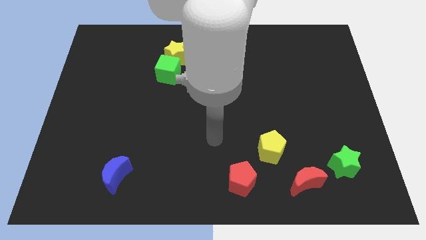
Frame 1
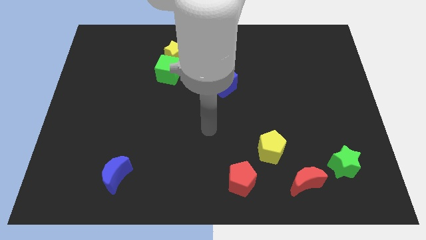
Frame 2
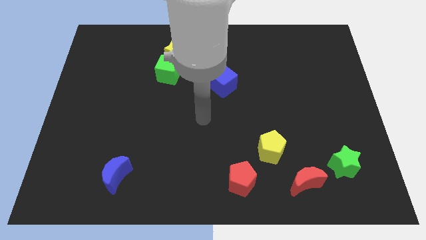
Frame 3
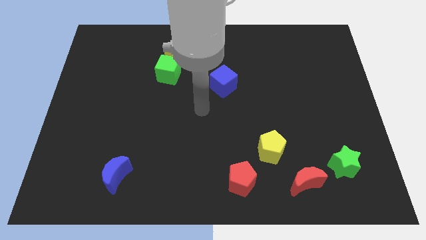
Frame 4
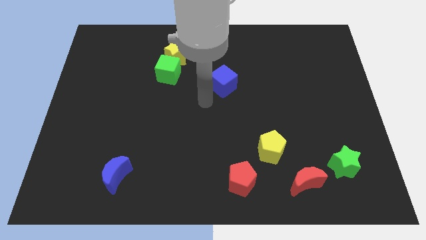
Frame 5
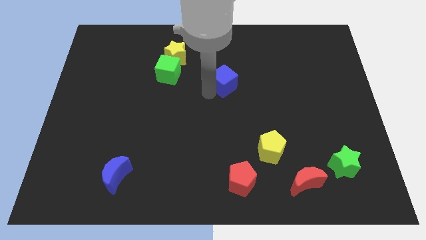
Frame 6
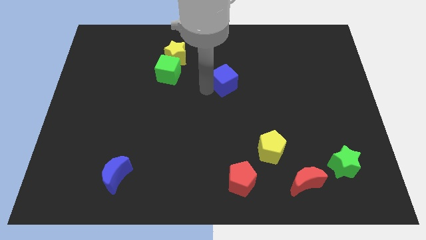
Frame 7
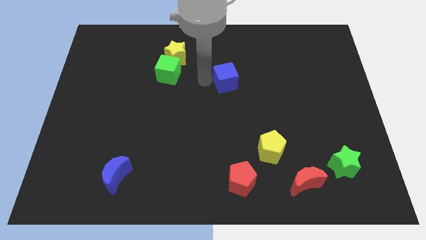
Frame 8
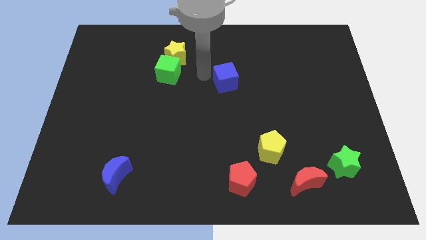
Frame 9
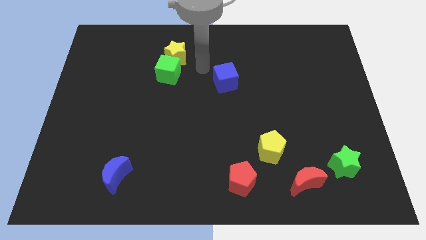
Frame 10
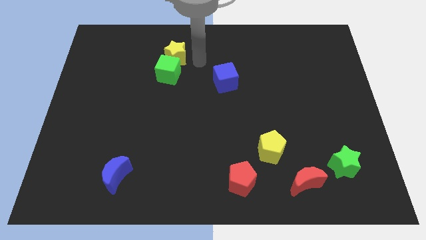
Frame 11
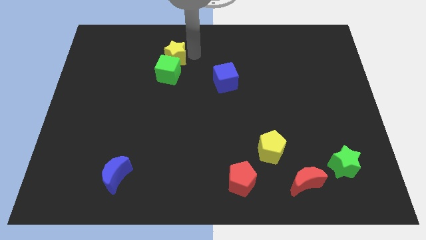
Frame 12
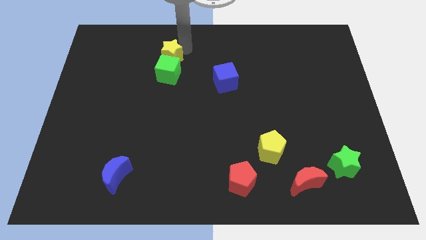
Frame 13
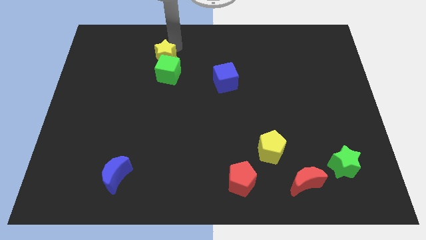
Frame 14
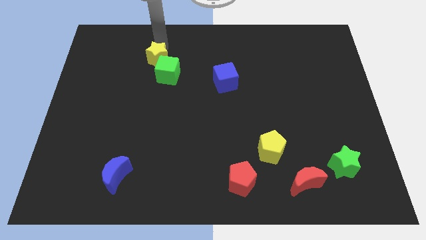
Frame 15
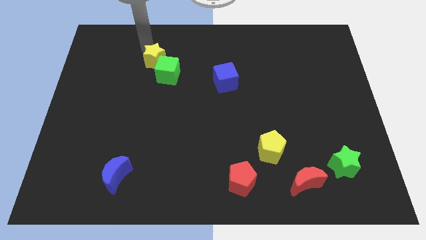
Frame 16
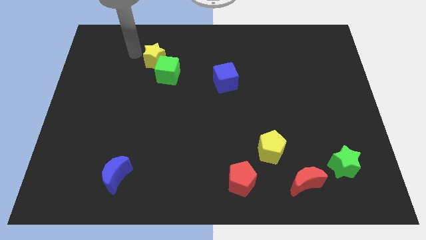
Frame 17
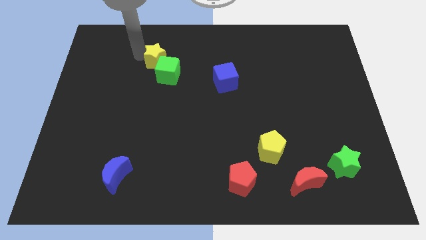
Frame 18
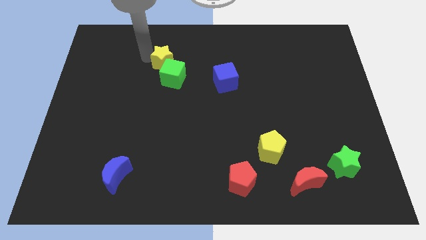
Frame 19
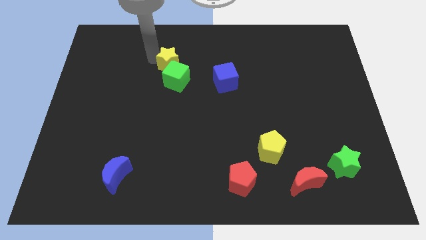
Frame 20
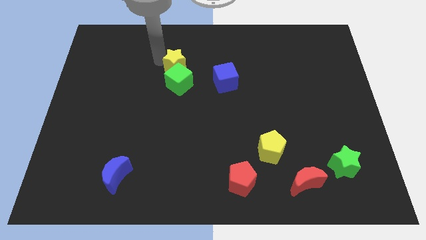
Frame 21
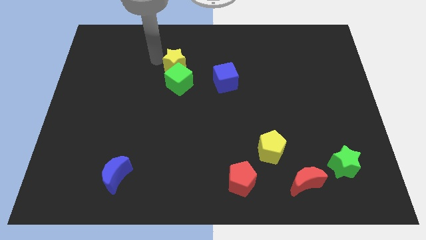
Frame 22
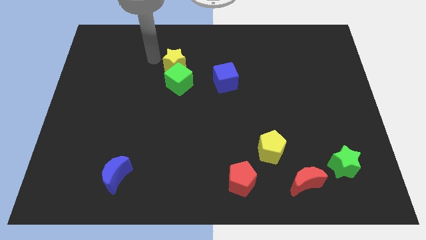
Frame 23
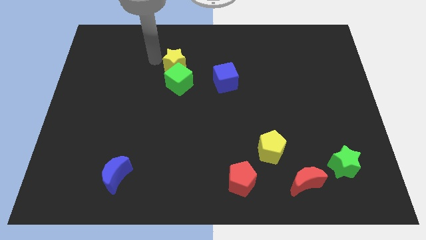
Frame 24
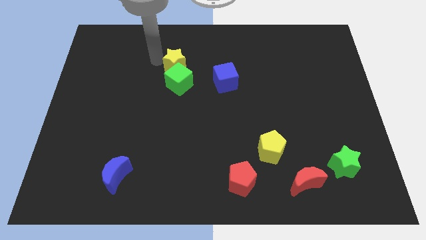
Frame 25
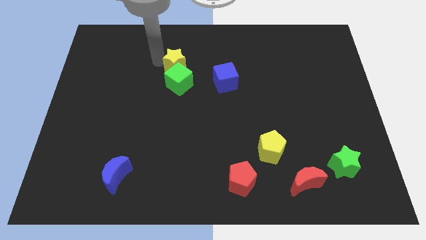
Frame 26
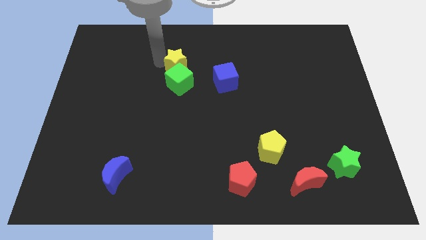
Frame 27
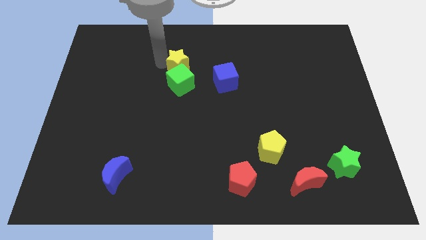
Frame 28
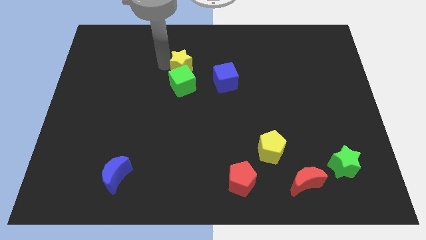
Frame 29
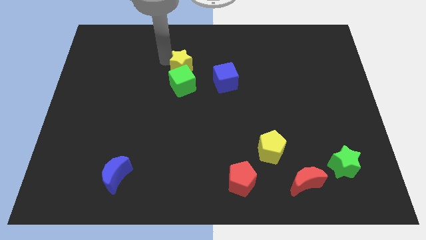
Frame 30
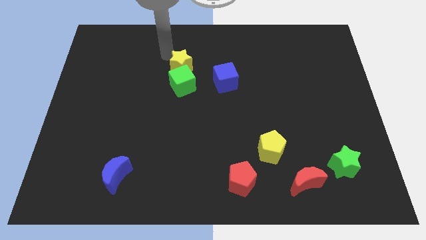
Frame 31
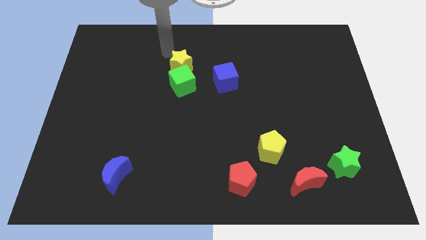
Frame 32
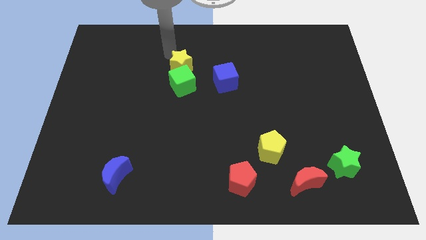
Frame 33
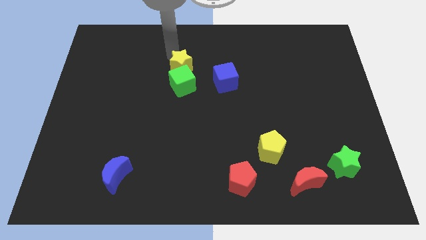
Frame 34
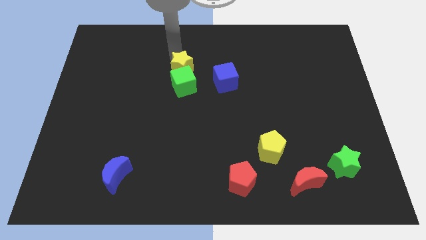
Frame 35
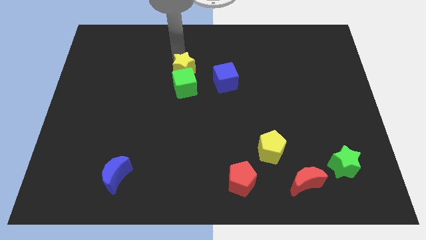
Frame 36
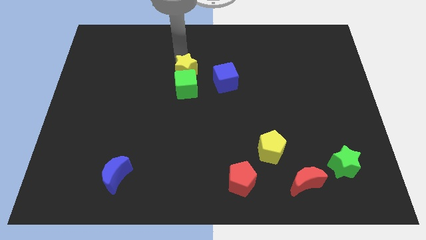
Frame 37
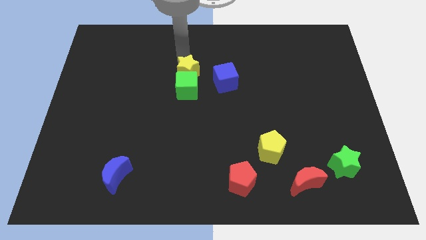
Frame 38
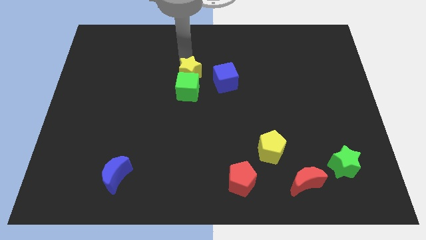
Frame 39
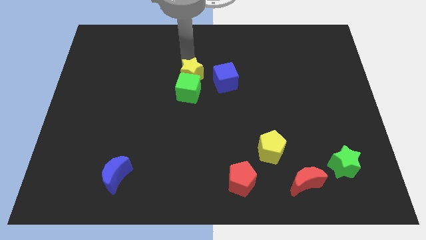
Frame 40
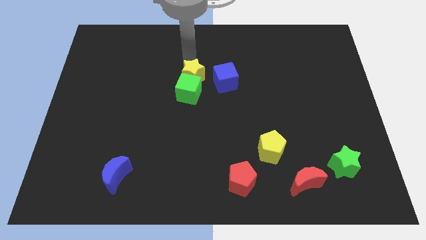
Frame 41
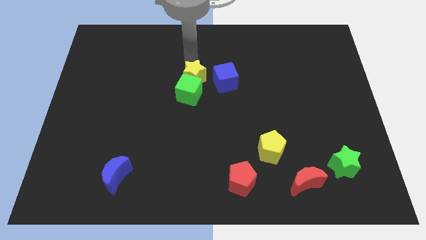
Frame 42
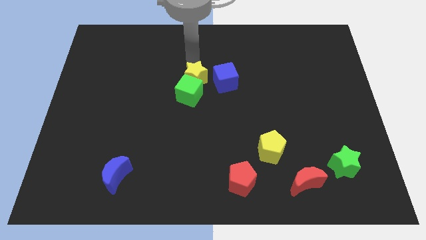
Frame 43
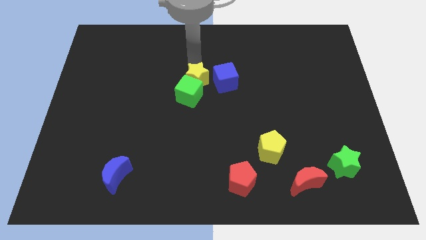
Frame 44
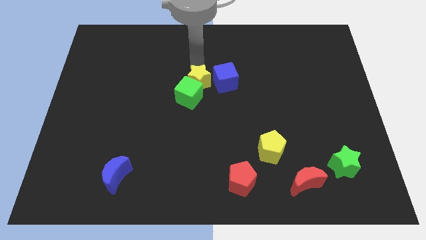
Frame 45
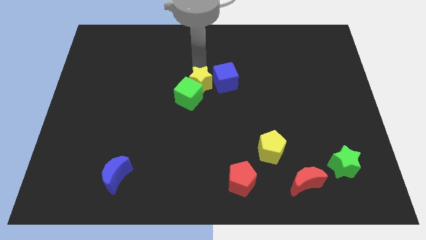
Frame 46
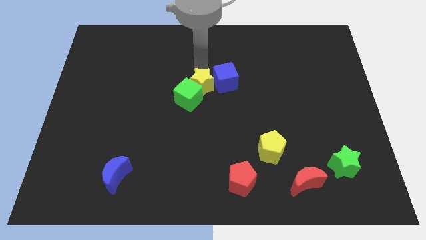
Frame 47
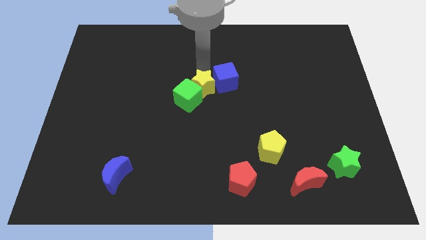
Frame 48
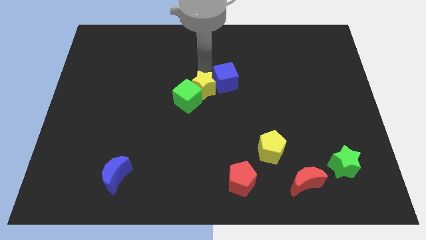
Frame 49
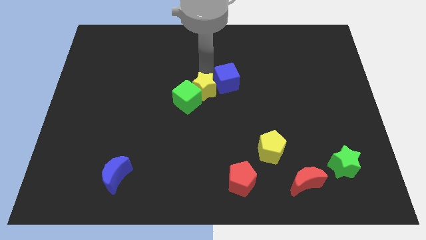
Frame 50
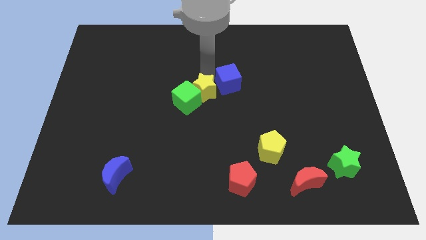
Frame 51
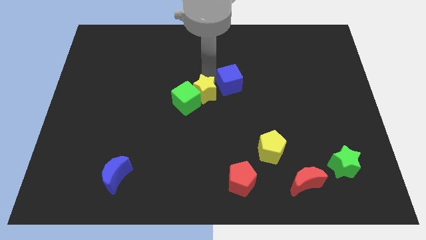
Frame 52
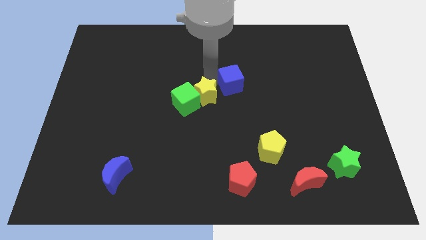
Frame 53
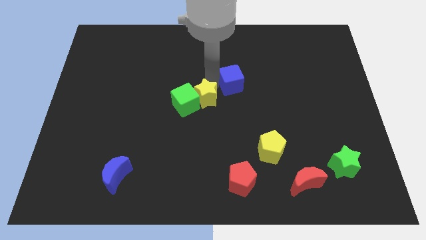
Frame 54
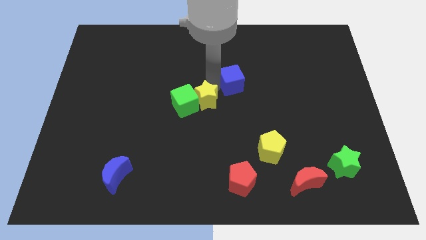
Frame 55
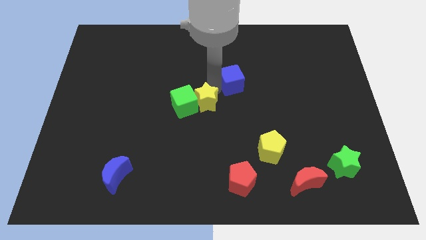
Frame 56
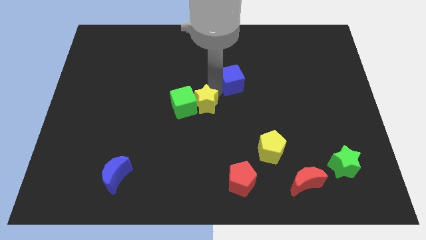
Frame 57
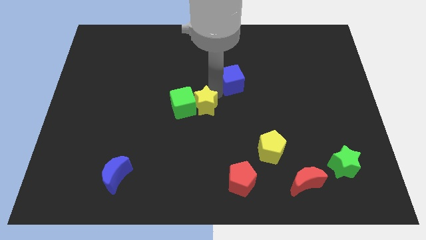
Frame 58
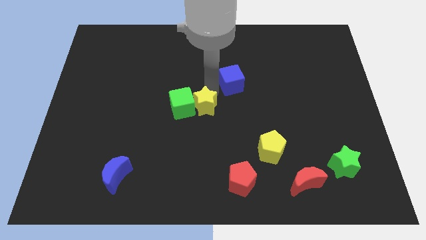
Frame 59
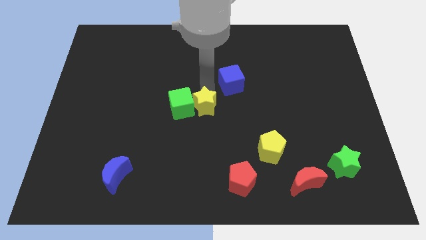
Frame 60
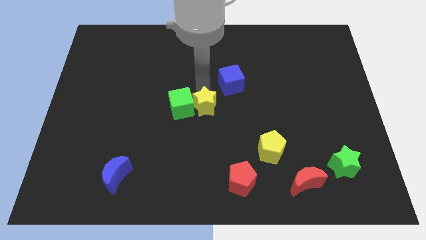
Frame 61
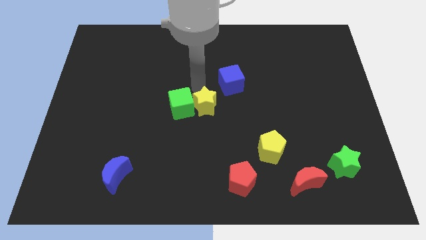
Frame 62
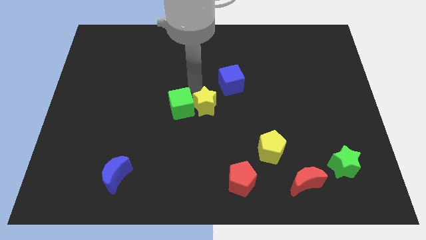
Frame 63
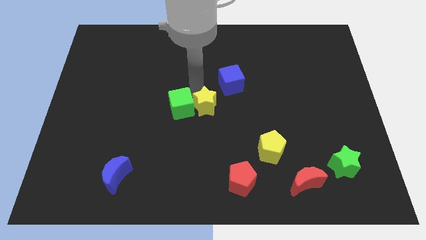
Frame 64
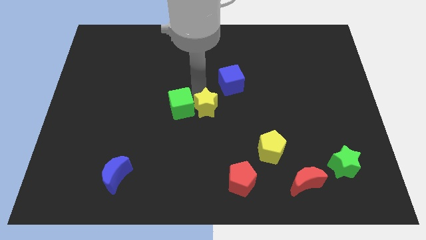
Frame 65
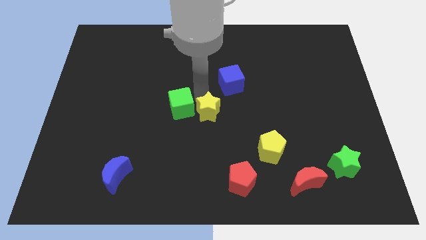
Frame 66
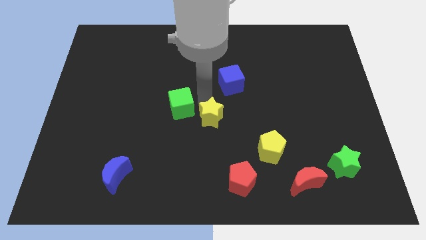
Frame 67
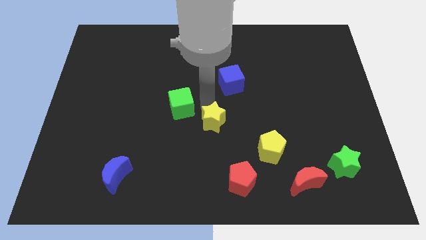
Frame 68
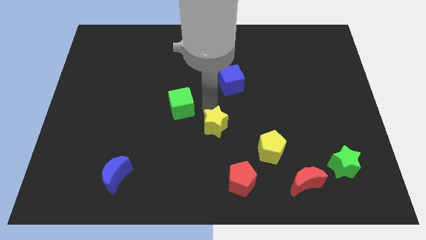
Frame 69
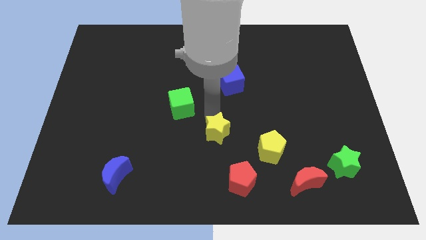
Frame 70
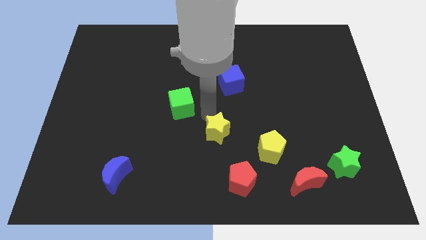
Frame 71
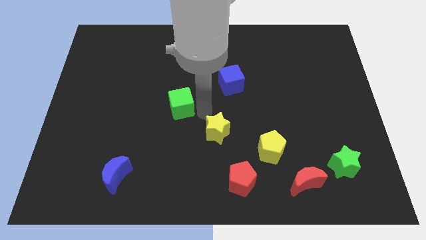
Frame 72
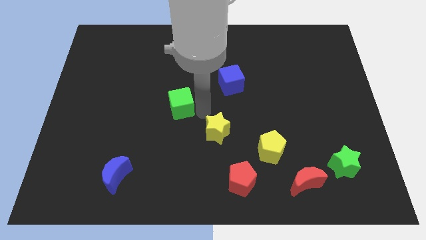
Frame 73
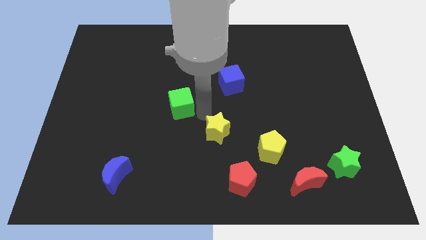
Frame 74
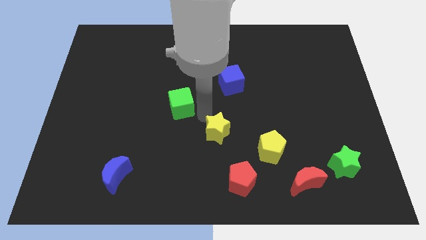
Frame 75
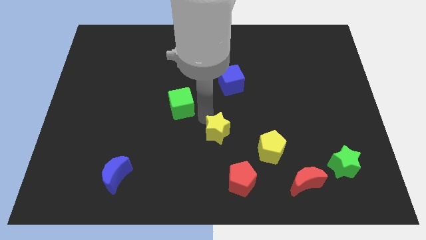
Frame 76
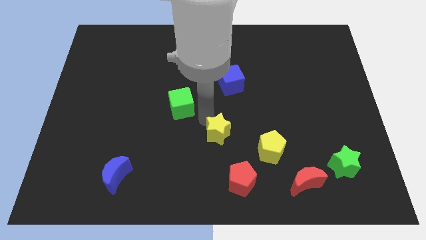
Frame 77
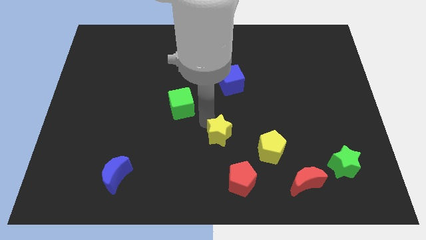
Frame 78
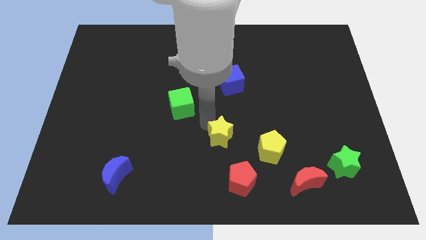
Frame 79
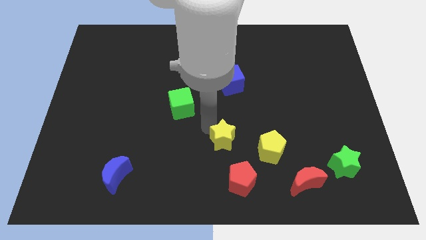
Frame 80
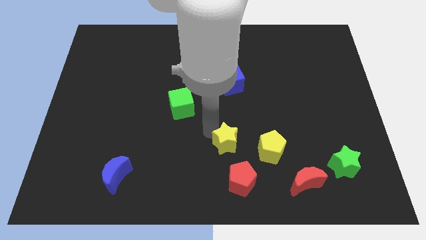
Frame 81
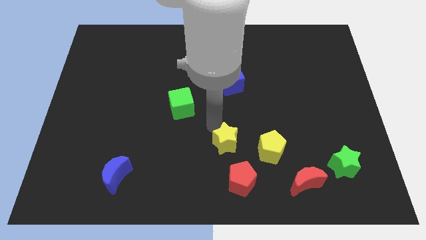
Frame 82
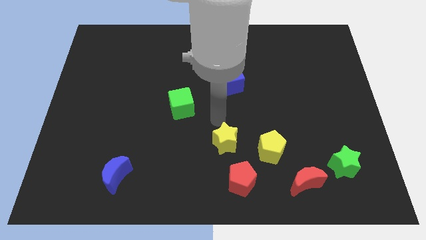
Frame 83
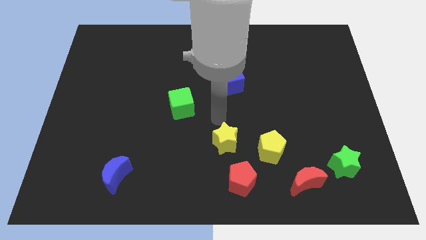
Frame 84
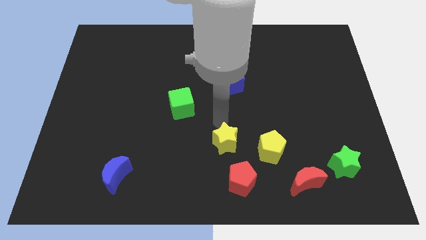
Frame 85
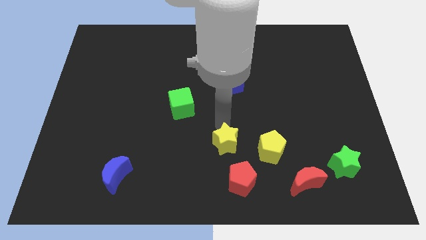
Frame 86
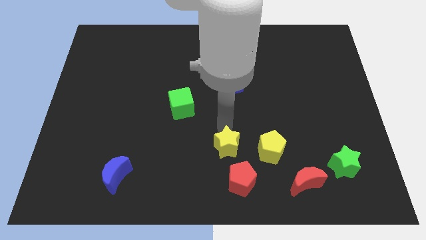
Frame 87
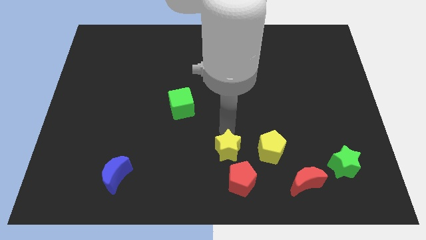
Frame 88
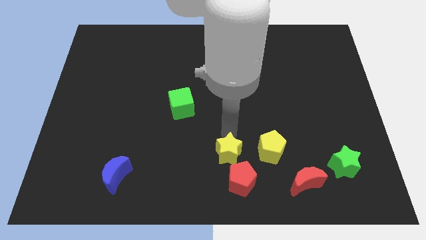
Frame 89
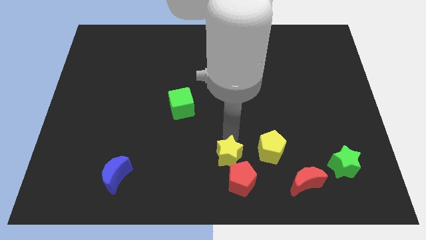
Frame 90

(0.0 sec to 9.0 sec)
move the yellow star next to the red pentagon
